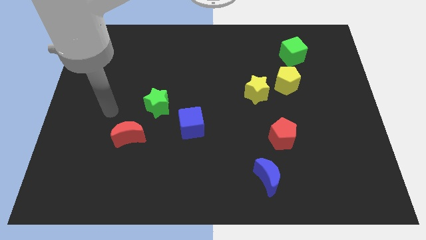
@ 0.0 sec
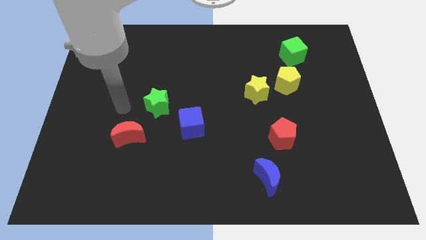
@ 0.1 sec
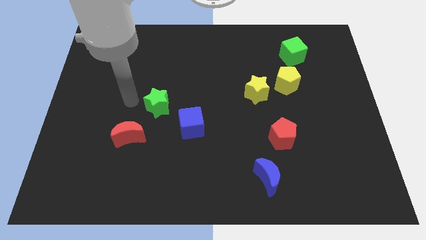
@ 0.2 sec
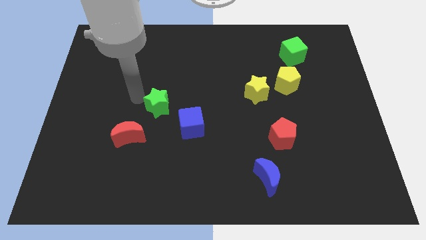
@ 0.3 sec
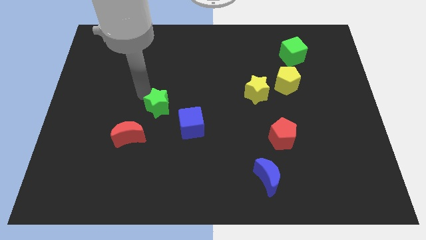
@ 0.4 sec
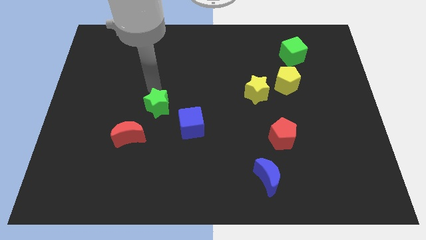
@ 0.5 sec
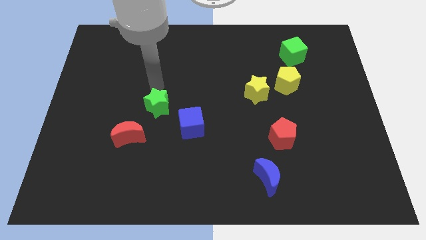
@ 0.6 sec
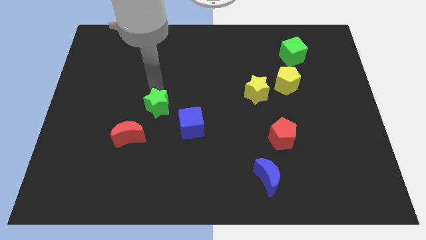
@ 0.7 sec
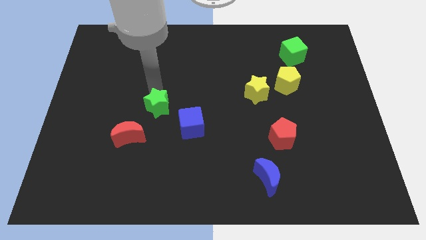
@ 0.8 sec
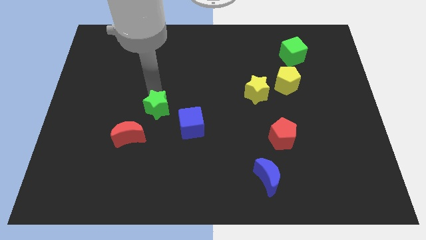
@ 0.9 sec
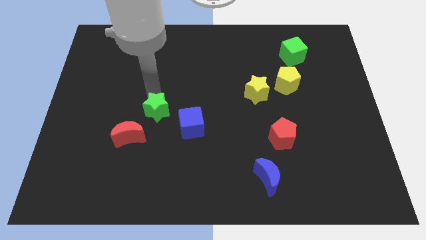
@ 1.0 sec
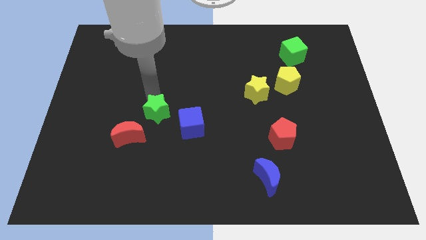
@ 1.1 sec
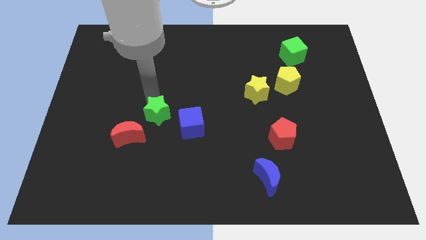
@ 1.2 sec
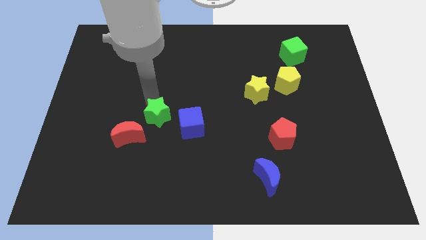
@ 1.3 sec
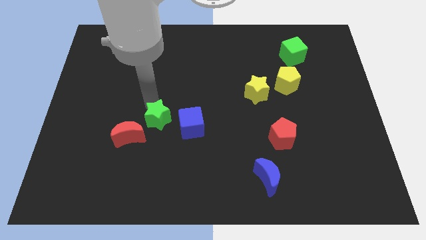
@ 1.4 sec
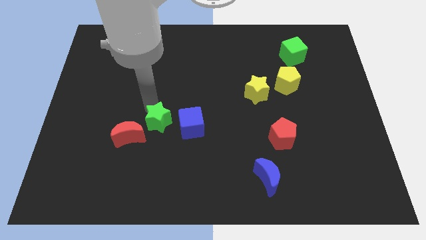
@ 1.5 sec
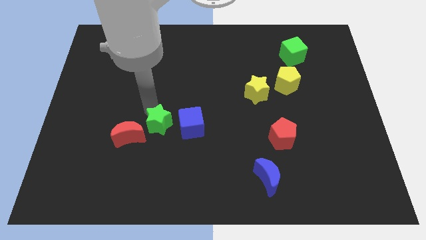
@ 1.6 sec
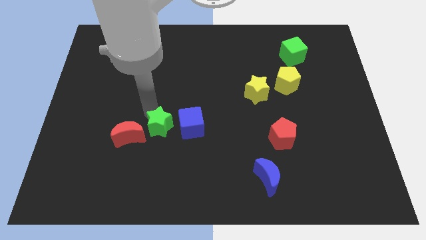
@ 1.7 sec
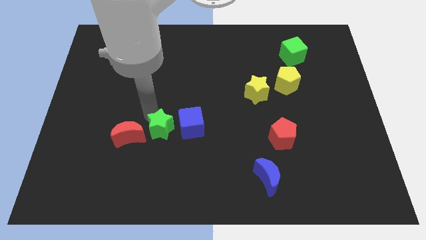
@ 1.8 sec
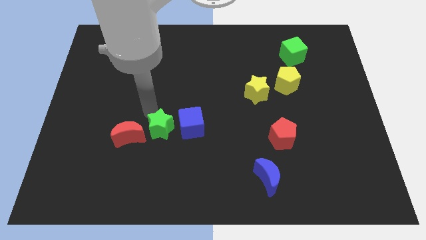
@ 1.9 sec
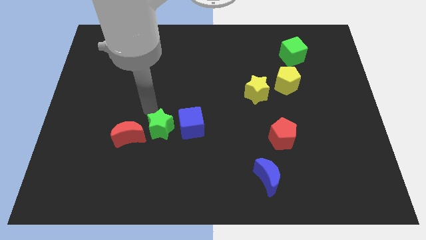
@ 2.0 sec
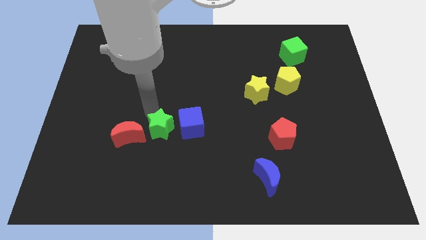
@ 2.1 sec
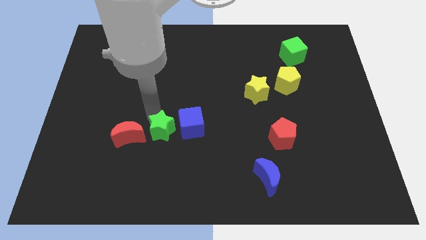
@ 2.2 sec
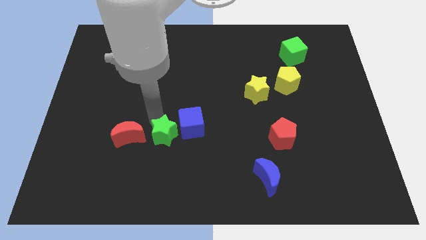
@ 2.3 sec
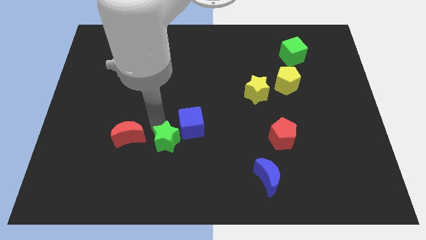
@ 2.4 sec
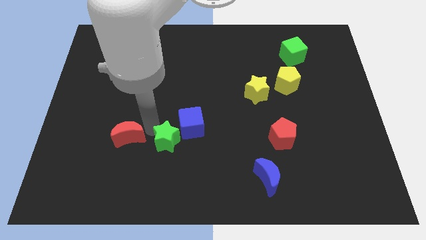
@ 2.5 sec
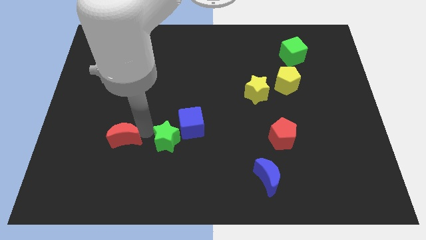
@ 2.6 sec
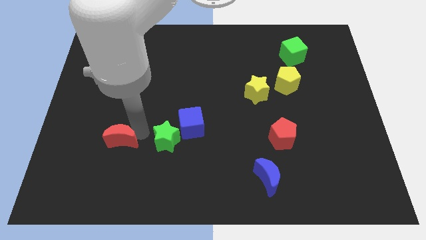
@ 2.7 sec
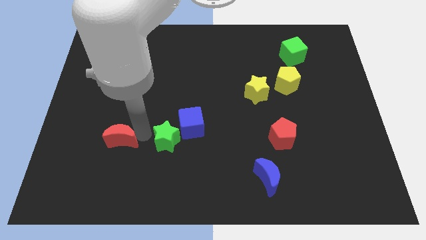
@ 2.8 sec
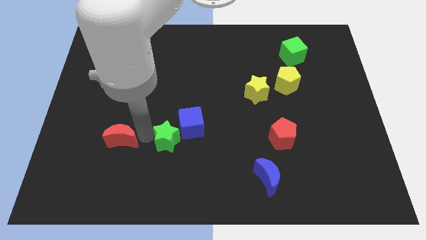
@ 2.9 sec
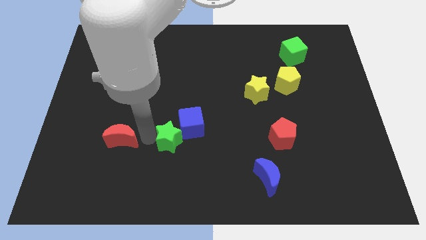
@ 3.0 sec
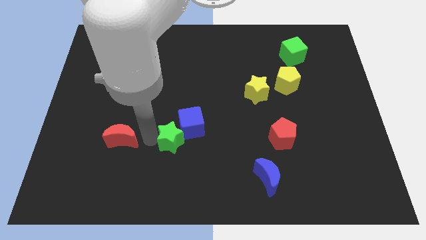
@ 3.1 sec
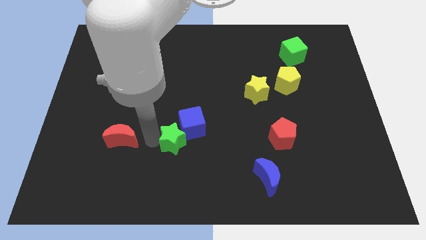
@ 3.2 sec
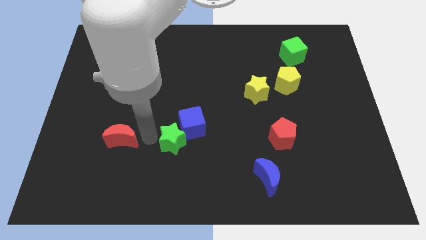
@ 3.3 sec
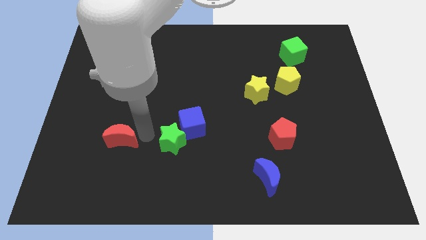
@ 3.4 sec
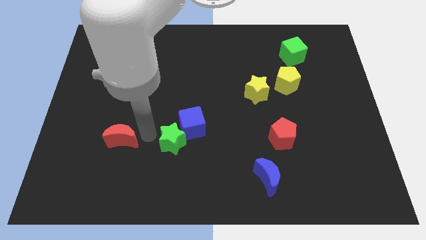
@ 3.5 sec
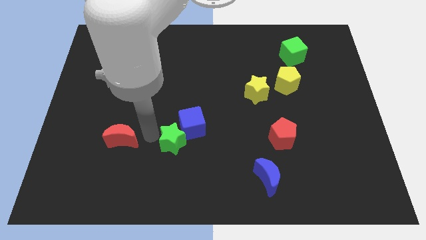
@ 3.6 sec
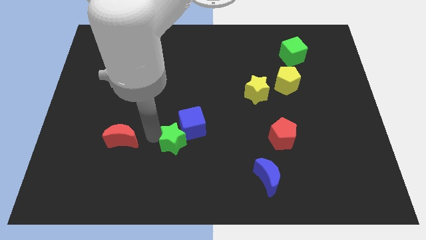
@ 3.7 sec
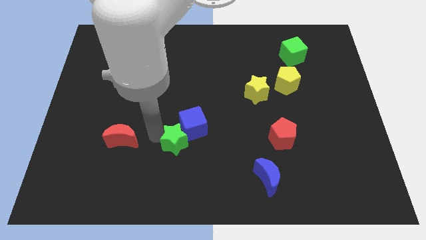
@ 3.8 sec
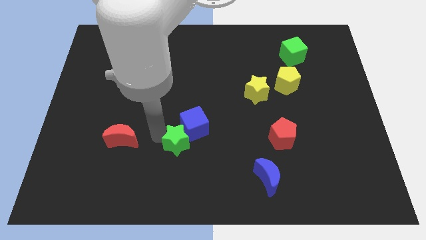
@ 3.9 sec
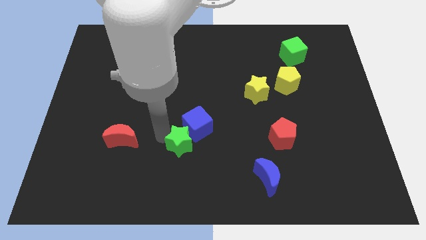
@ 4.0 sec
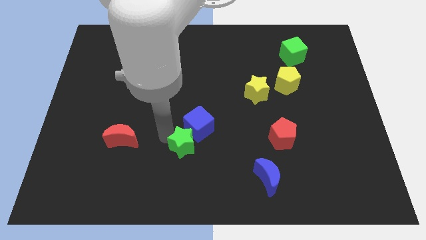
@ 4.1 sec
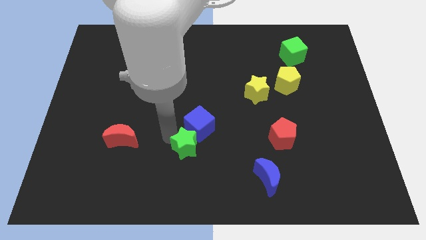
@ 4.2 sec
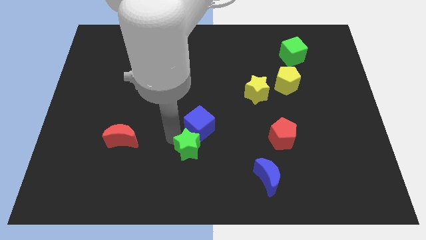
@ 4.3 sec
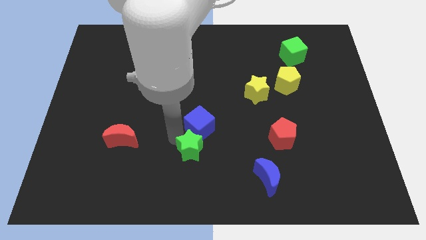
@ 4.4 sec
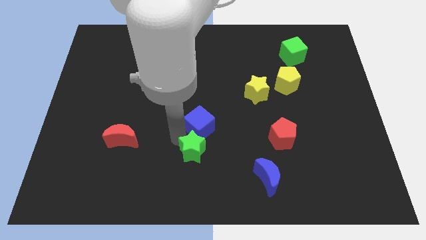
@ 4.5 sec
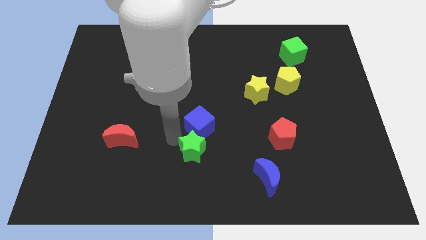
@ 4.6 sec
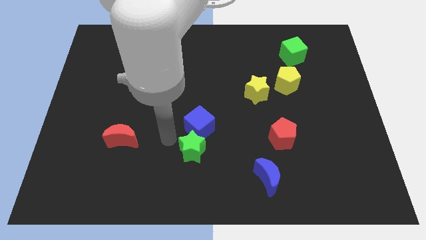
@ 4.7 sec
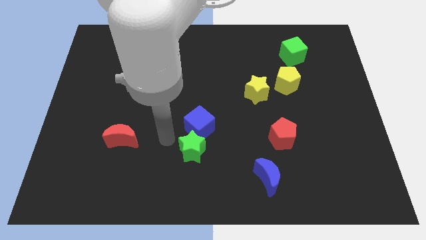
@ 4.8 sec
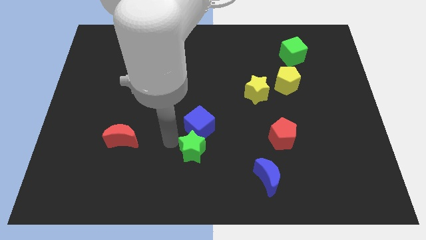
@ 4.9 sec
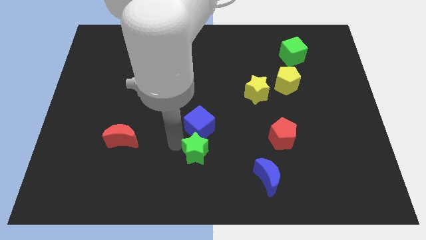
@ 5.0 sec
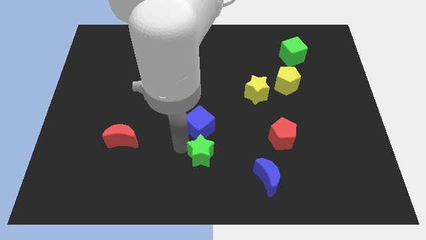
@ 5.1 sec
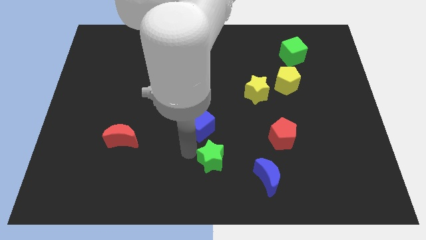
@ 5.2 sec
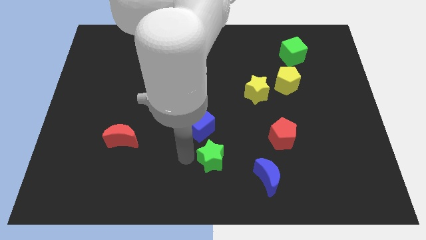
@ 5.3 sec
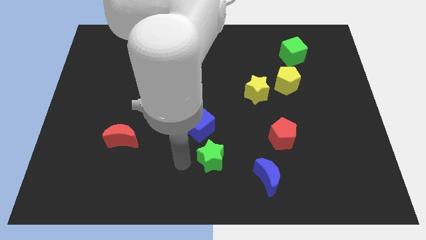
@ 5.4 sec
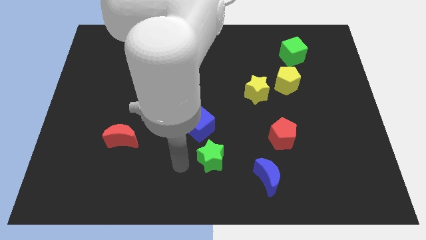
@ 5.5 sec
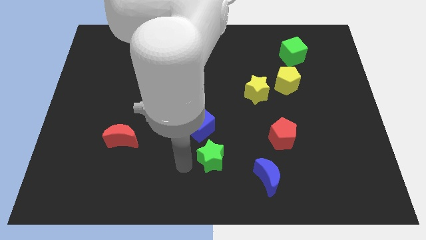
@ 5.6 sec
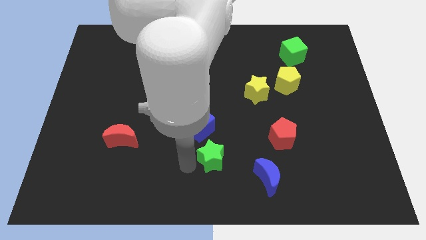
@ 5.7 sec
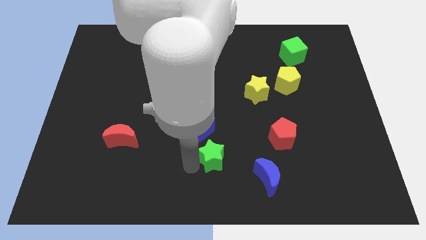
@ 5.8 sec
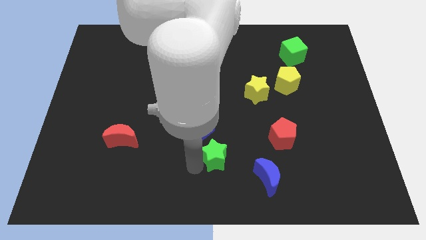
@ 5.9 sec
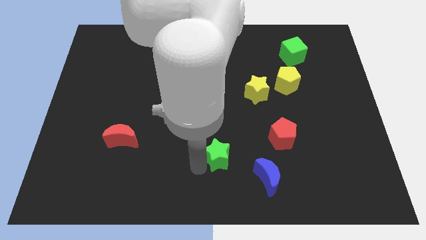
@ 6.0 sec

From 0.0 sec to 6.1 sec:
move the green star to the top left of the blue moon

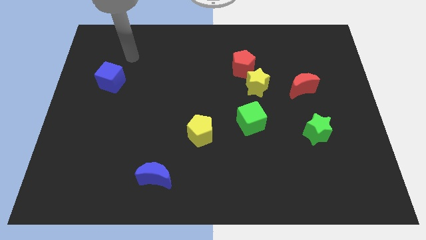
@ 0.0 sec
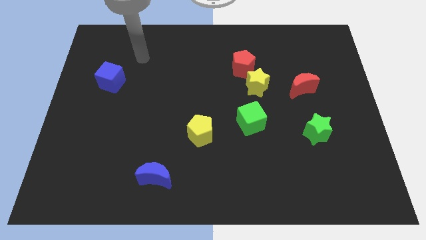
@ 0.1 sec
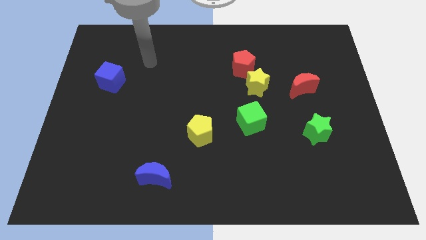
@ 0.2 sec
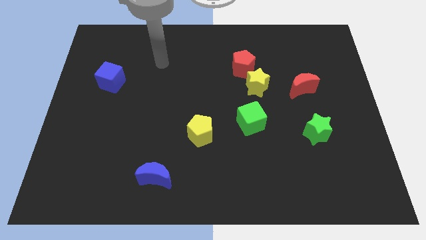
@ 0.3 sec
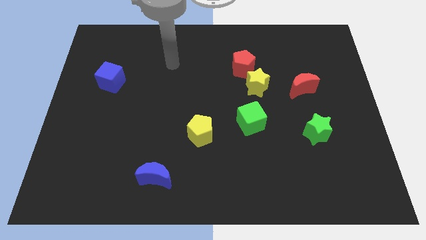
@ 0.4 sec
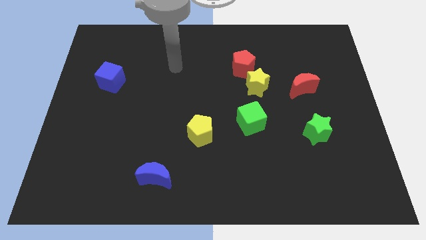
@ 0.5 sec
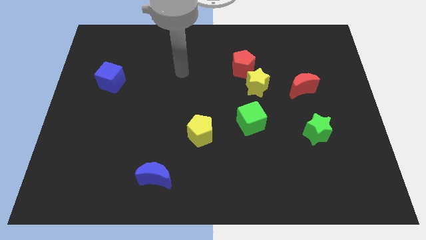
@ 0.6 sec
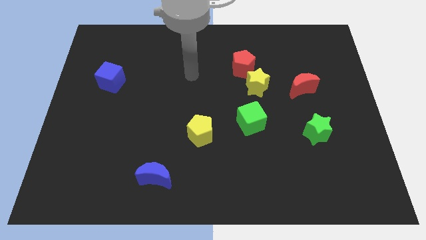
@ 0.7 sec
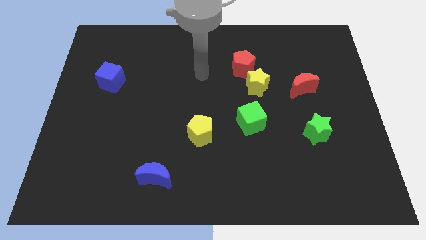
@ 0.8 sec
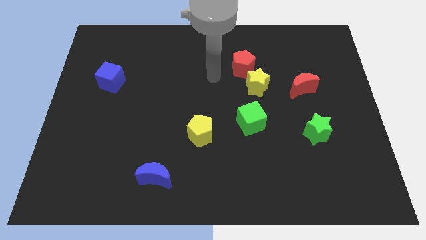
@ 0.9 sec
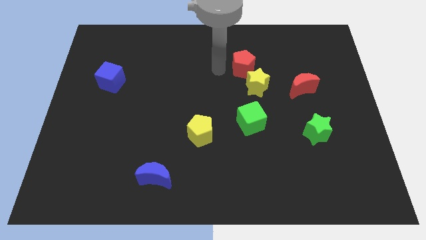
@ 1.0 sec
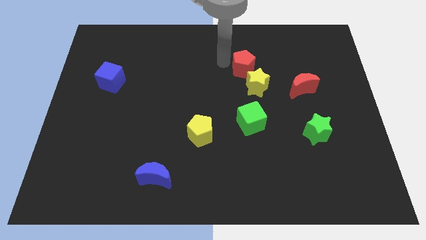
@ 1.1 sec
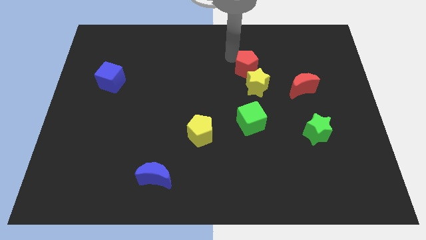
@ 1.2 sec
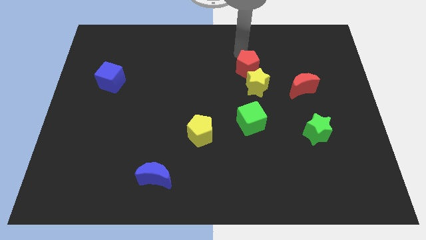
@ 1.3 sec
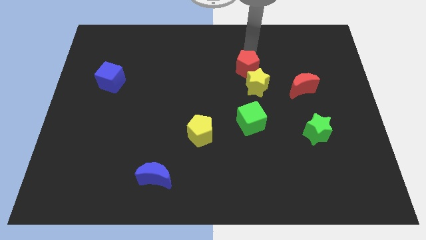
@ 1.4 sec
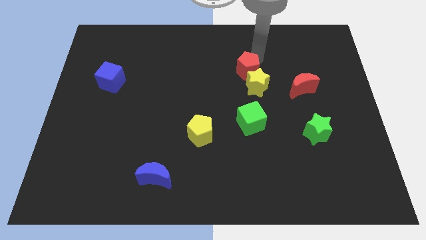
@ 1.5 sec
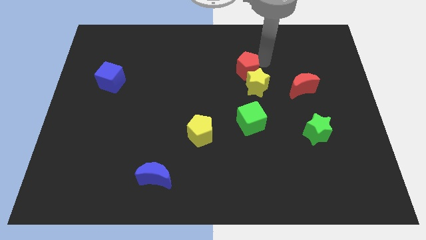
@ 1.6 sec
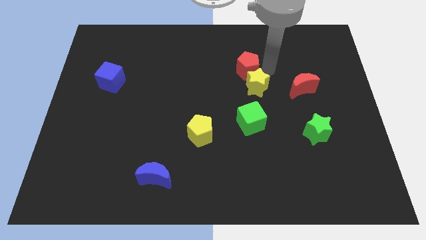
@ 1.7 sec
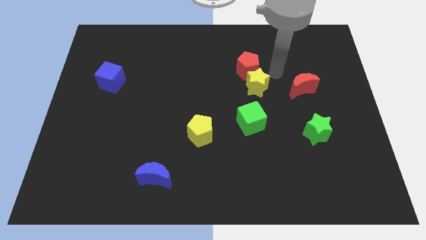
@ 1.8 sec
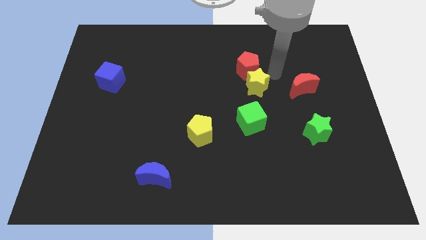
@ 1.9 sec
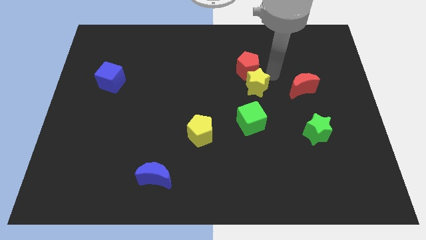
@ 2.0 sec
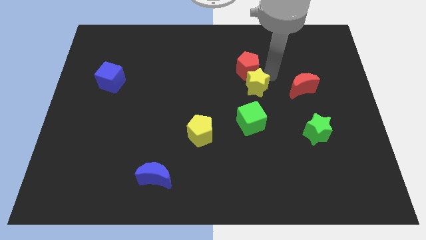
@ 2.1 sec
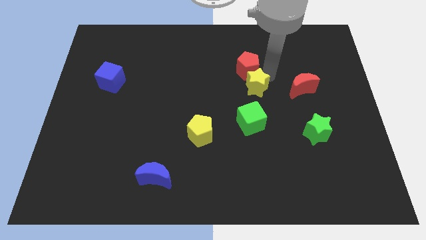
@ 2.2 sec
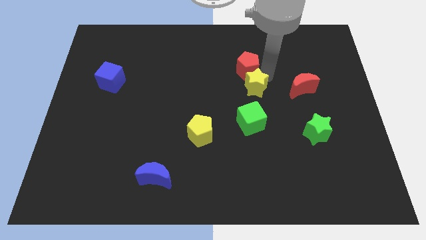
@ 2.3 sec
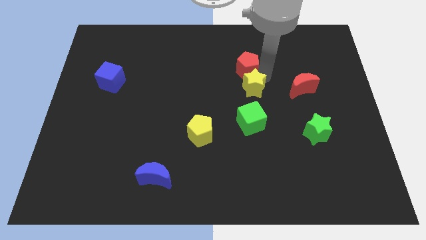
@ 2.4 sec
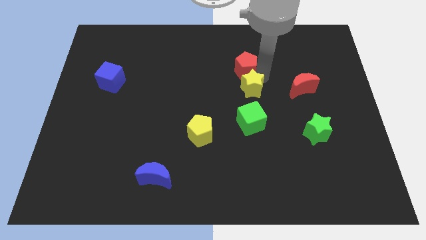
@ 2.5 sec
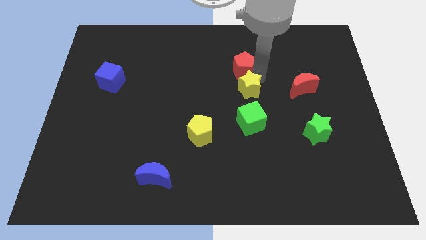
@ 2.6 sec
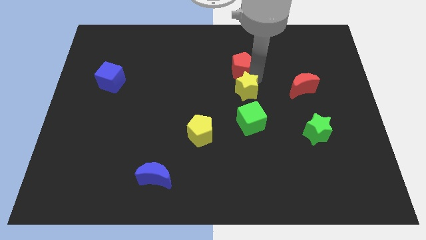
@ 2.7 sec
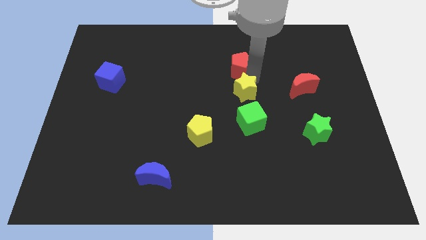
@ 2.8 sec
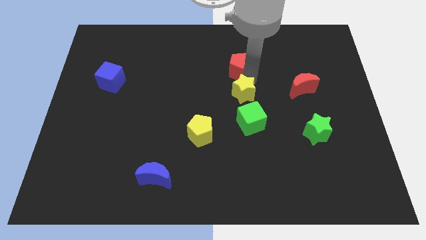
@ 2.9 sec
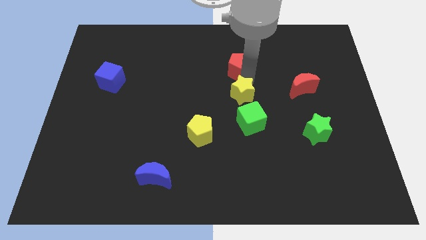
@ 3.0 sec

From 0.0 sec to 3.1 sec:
put the yellow star to the top left of the green cube
